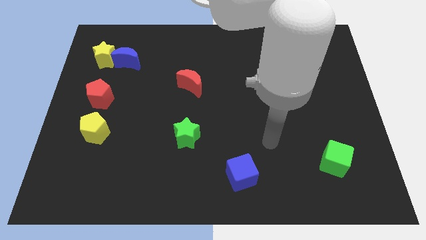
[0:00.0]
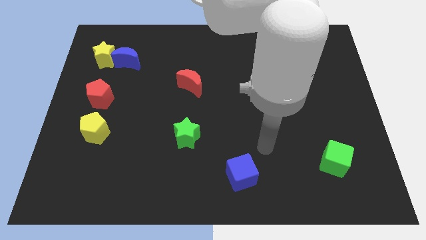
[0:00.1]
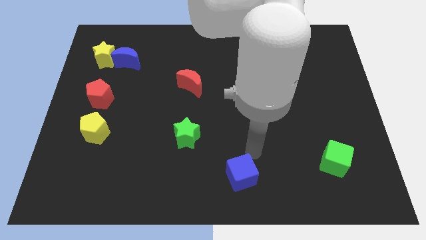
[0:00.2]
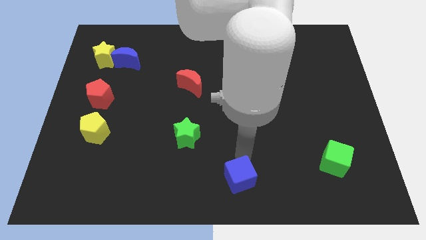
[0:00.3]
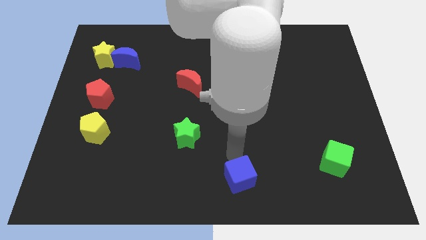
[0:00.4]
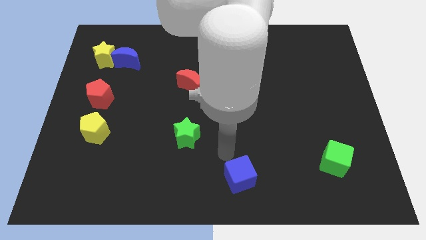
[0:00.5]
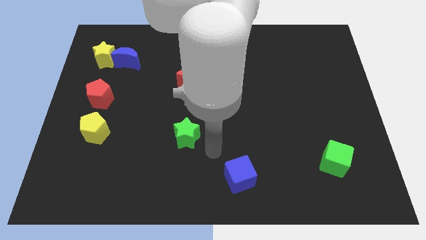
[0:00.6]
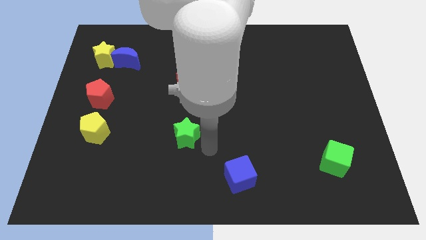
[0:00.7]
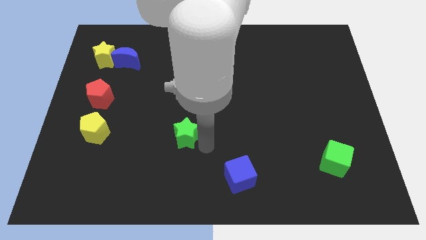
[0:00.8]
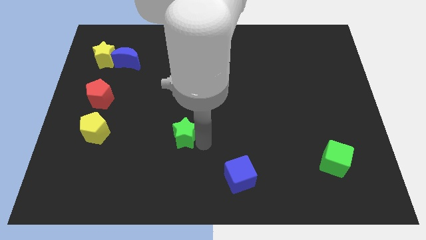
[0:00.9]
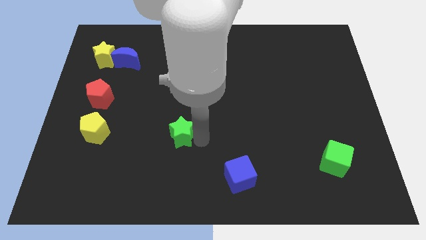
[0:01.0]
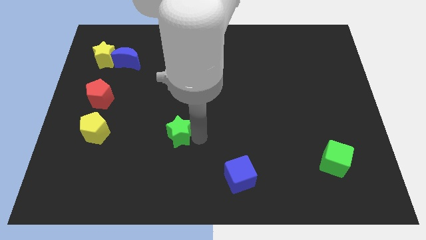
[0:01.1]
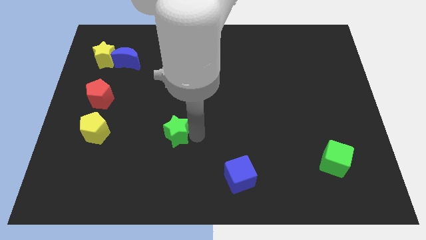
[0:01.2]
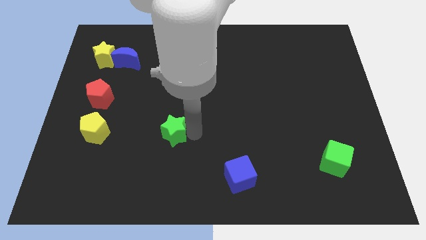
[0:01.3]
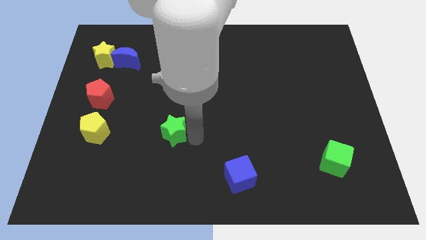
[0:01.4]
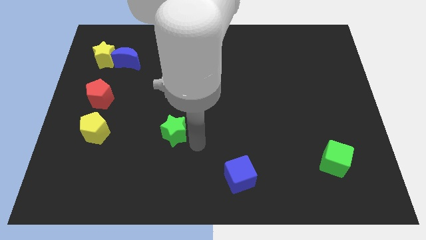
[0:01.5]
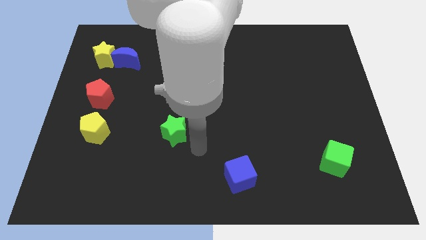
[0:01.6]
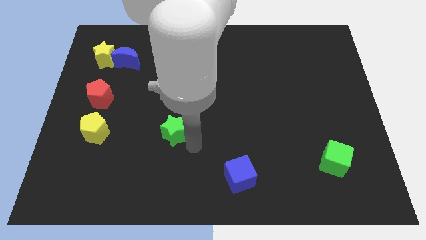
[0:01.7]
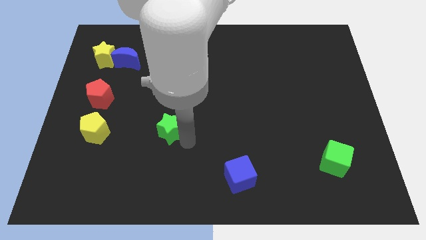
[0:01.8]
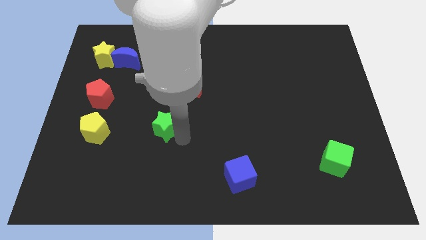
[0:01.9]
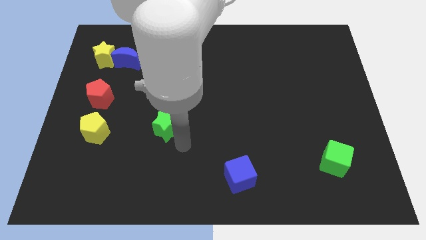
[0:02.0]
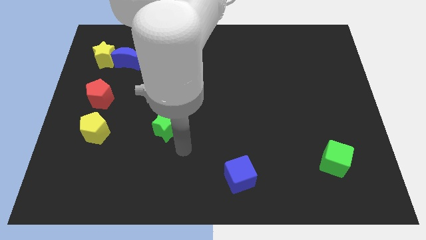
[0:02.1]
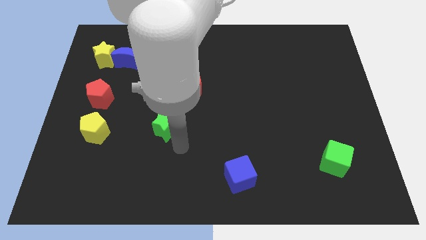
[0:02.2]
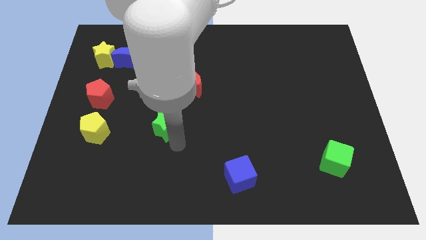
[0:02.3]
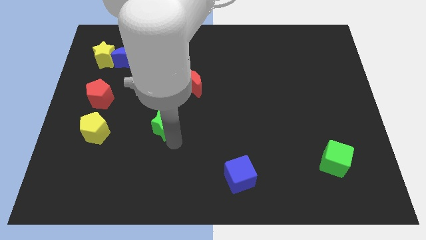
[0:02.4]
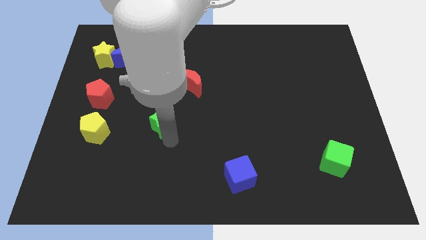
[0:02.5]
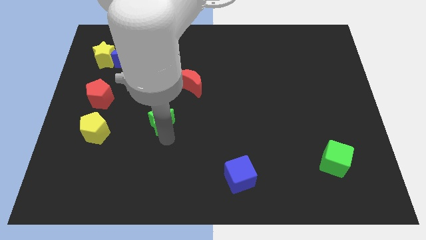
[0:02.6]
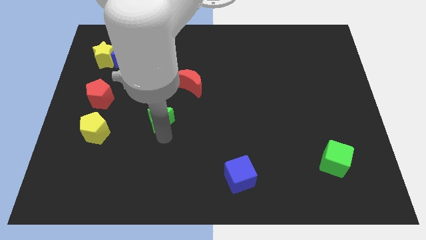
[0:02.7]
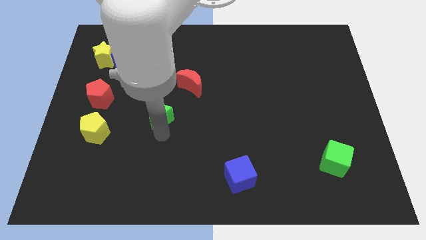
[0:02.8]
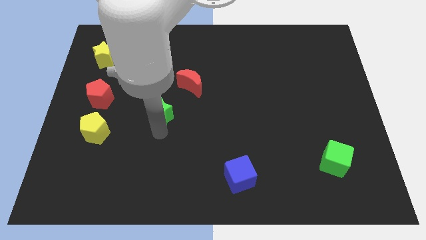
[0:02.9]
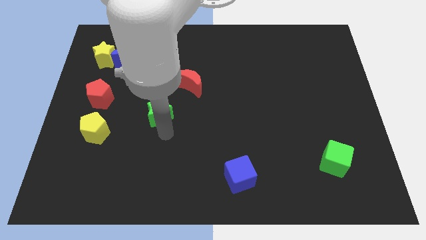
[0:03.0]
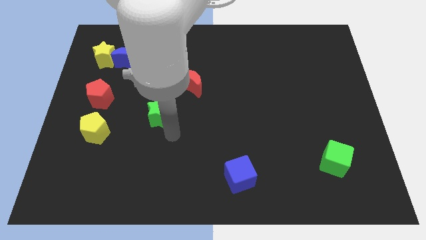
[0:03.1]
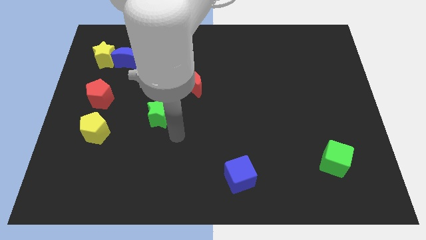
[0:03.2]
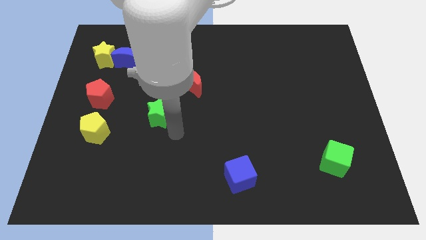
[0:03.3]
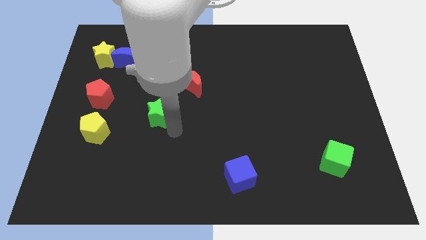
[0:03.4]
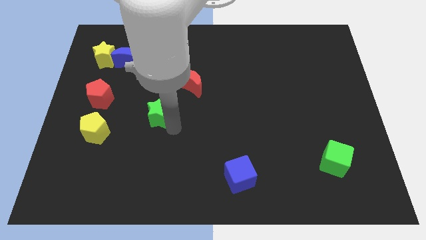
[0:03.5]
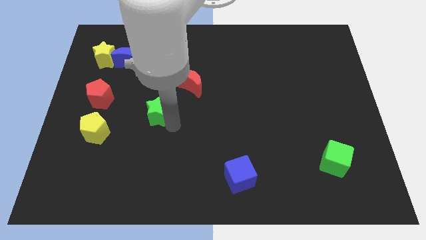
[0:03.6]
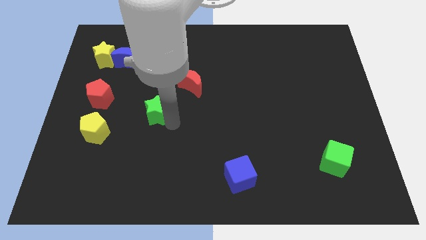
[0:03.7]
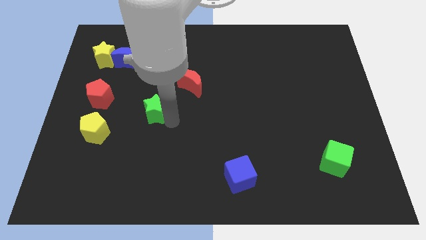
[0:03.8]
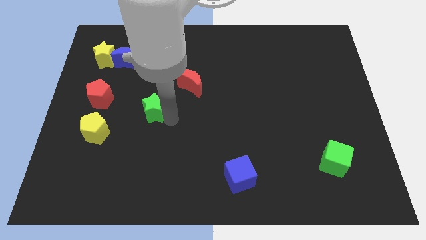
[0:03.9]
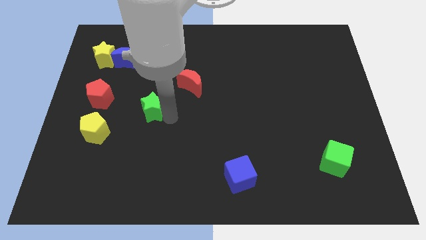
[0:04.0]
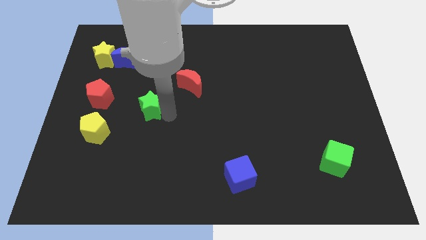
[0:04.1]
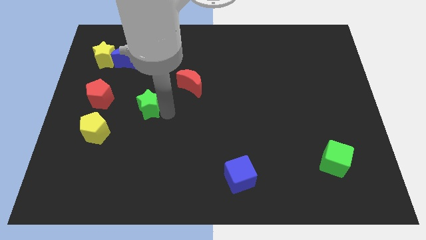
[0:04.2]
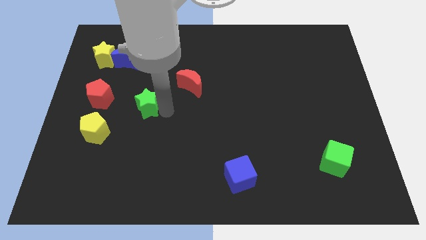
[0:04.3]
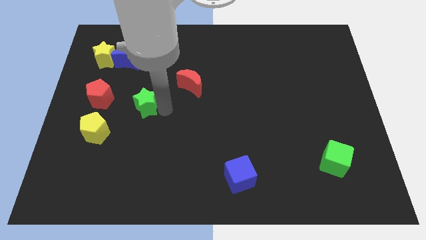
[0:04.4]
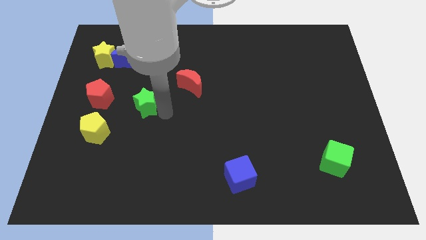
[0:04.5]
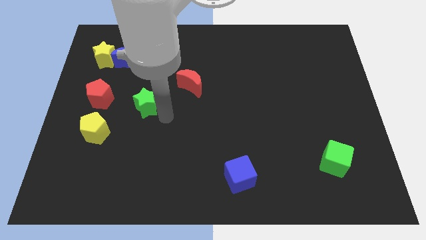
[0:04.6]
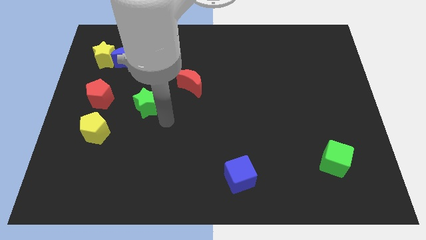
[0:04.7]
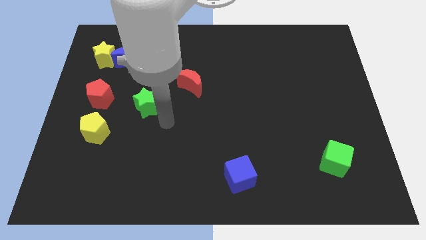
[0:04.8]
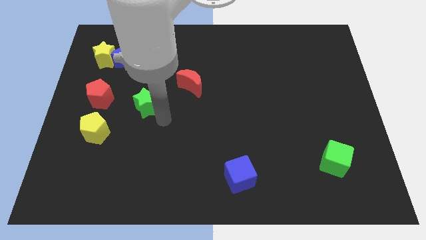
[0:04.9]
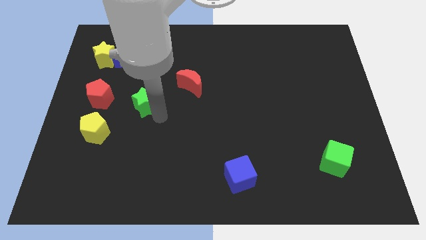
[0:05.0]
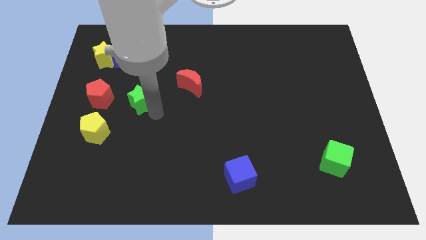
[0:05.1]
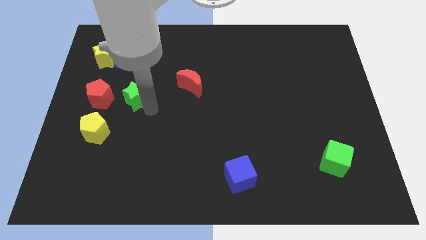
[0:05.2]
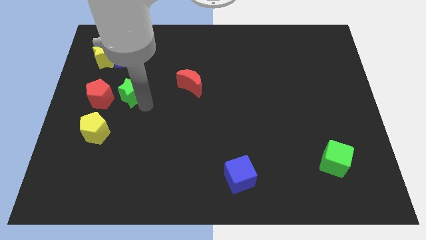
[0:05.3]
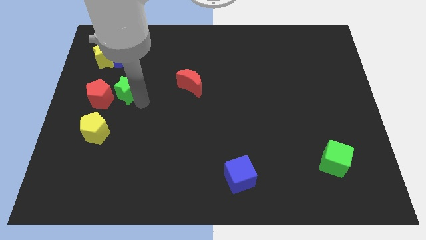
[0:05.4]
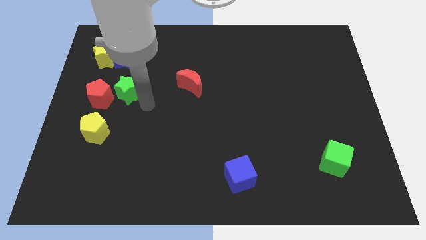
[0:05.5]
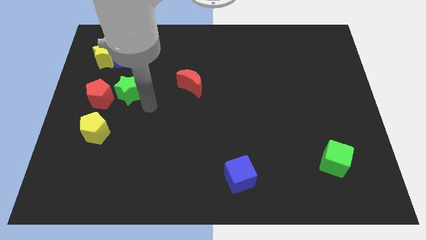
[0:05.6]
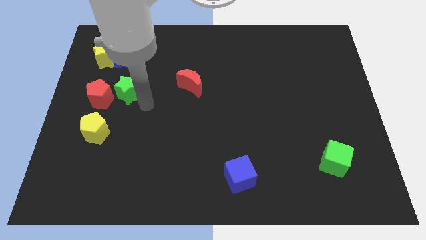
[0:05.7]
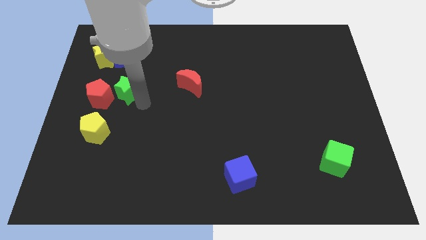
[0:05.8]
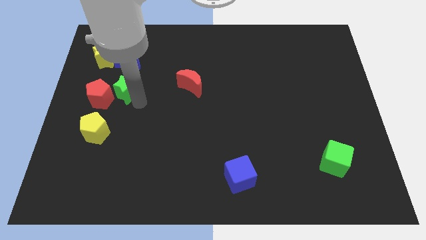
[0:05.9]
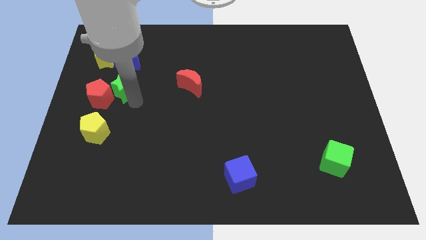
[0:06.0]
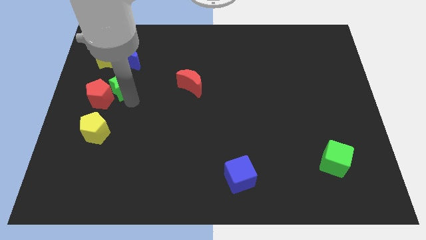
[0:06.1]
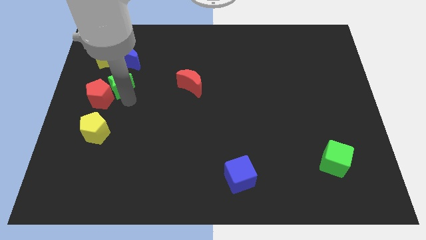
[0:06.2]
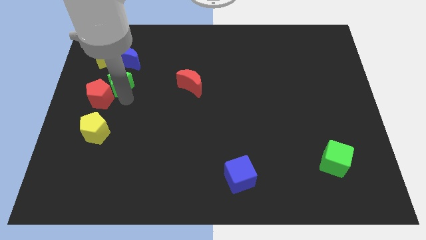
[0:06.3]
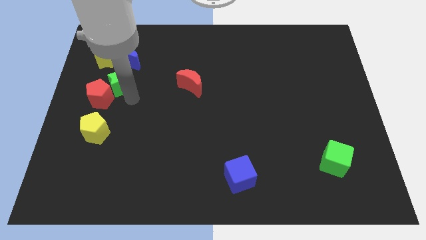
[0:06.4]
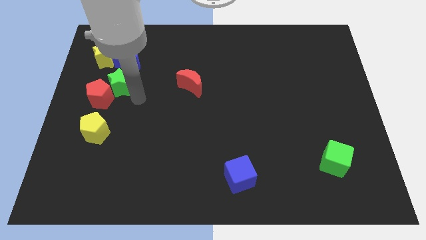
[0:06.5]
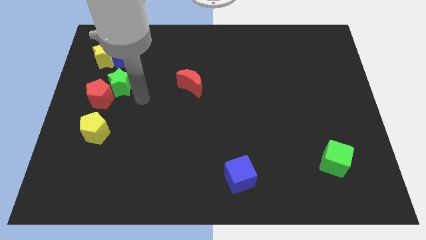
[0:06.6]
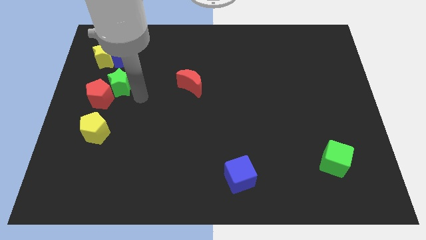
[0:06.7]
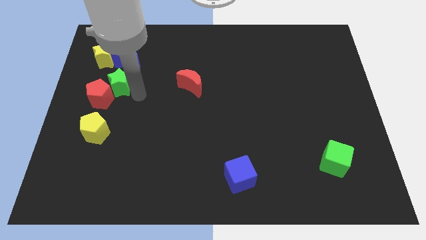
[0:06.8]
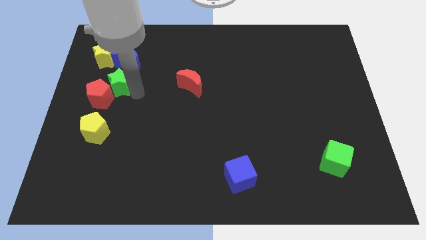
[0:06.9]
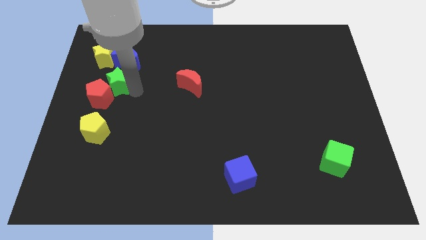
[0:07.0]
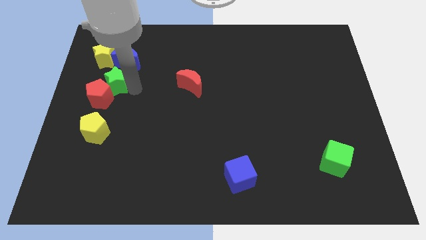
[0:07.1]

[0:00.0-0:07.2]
move the green star to the bottom left side of the blue moon
